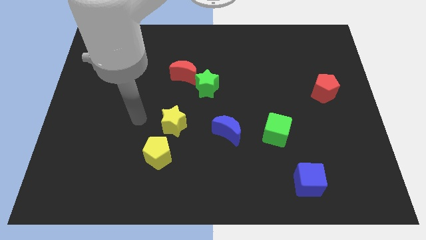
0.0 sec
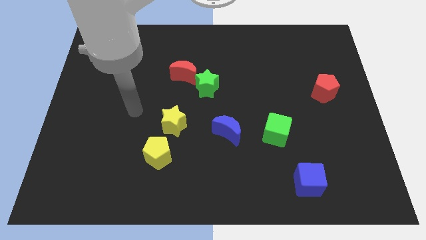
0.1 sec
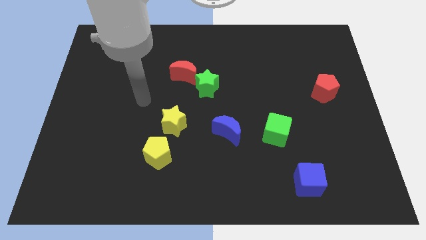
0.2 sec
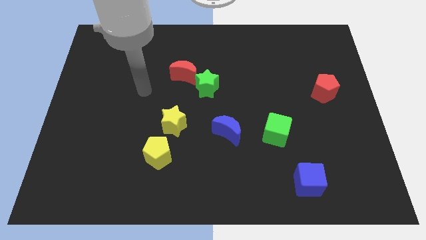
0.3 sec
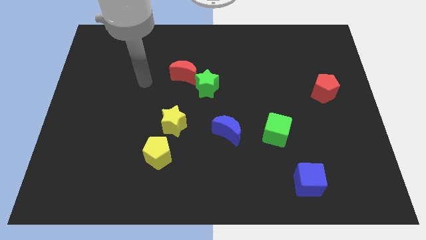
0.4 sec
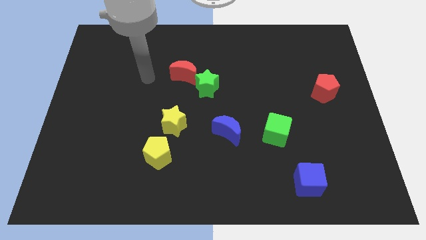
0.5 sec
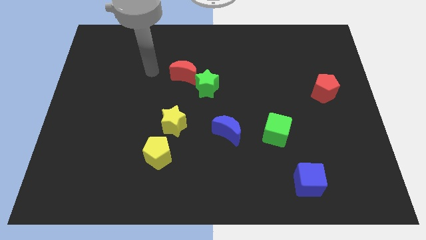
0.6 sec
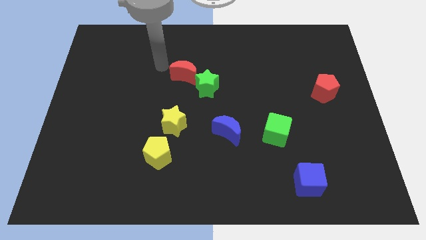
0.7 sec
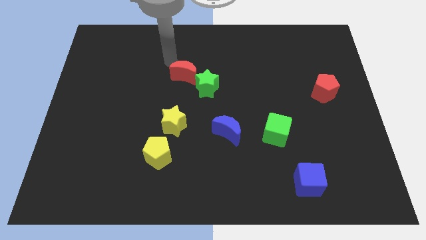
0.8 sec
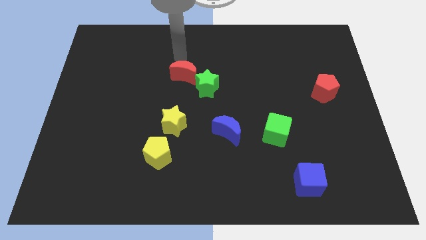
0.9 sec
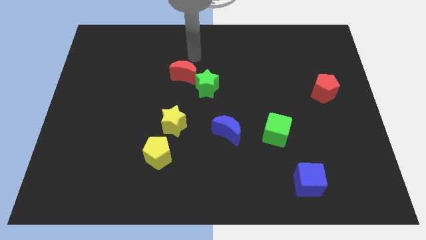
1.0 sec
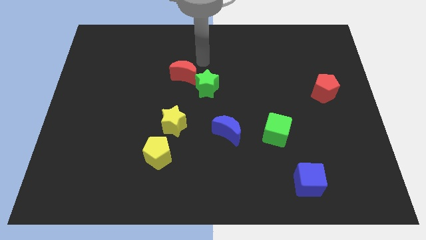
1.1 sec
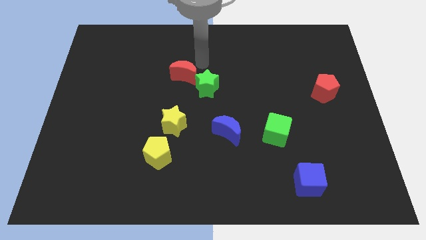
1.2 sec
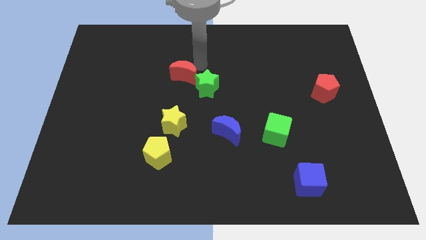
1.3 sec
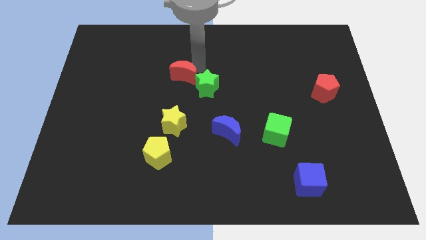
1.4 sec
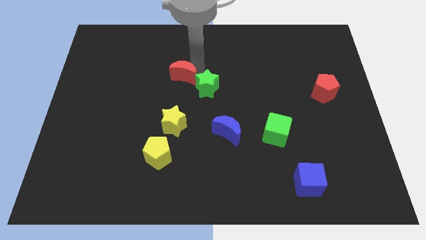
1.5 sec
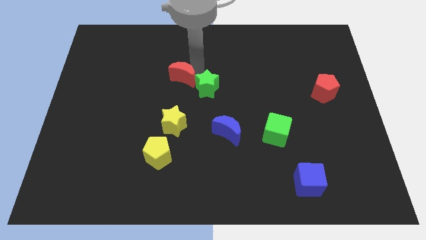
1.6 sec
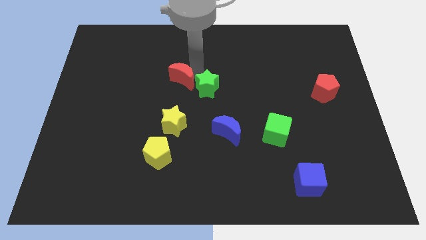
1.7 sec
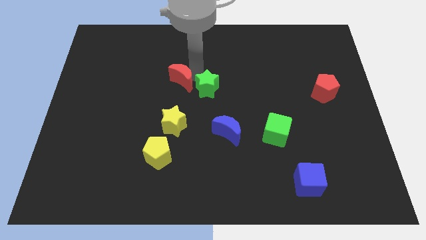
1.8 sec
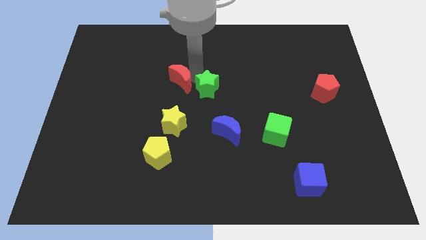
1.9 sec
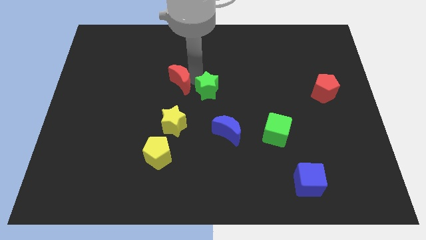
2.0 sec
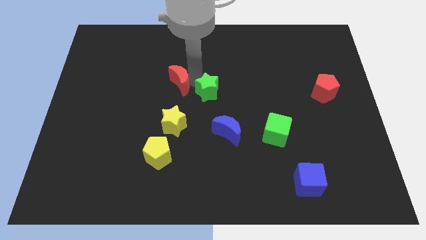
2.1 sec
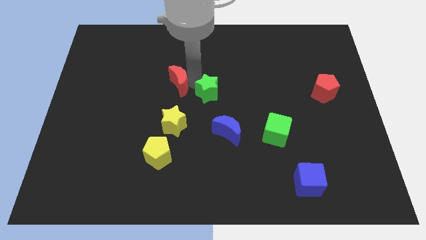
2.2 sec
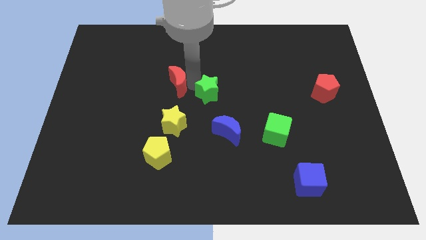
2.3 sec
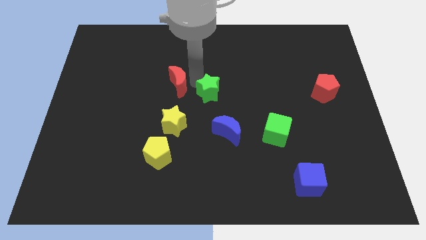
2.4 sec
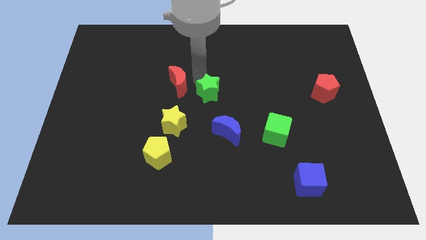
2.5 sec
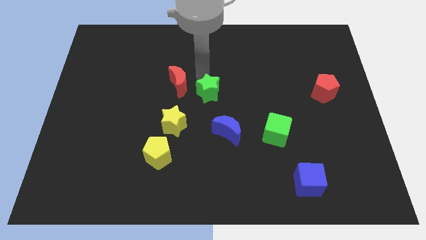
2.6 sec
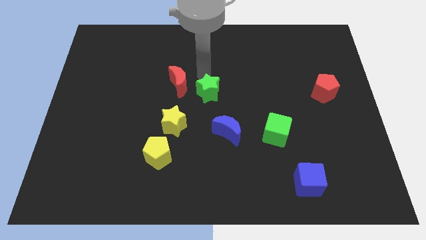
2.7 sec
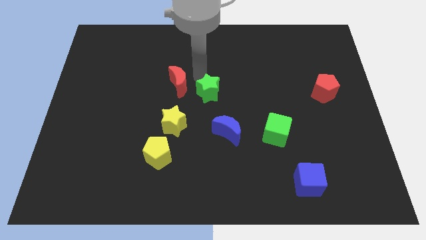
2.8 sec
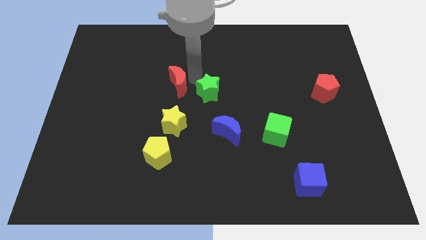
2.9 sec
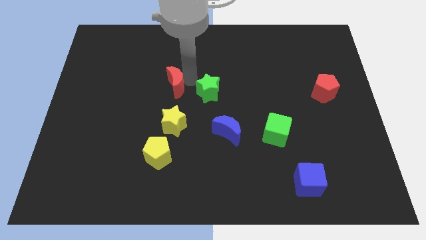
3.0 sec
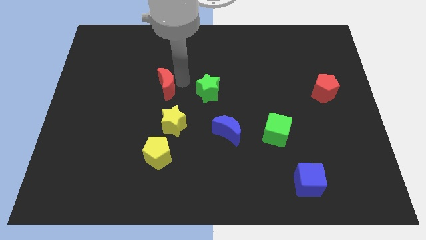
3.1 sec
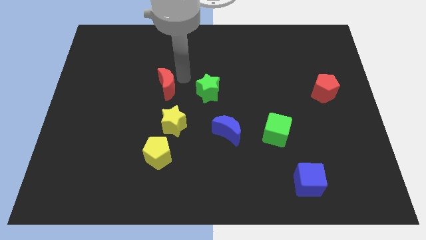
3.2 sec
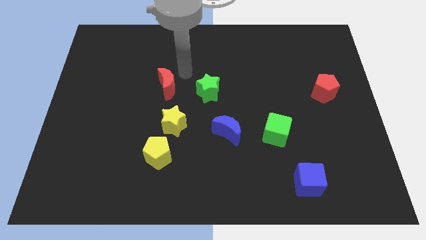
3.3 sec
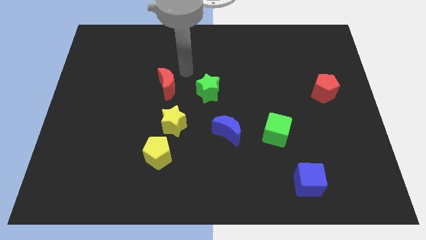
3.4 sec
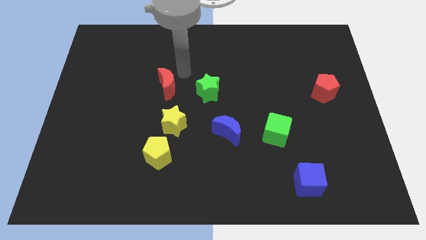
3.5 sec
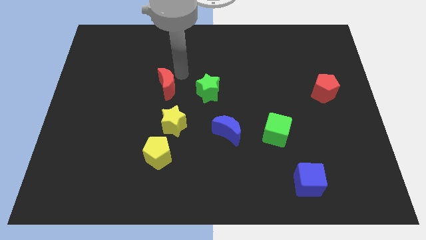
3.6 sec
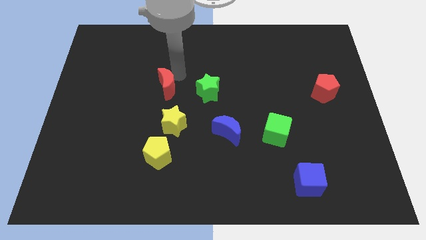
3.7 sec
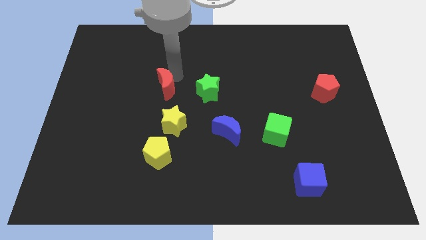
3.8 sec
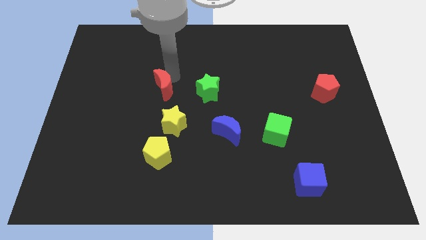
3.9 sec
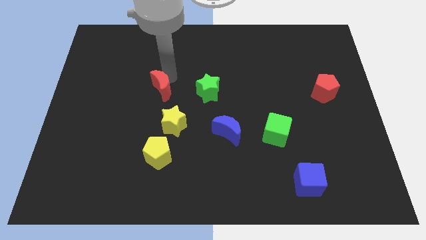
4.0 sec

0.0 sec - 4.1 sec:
slide the red moon a little down and to the left diagonally

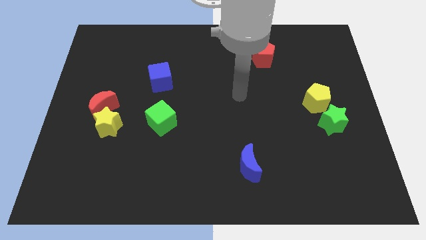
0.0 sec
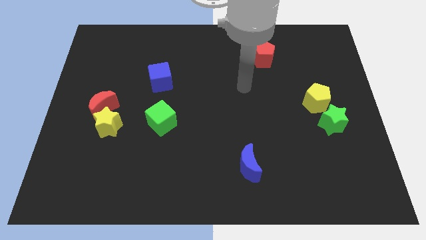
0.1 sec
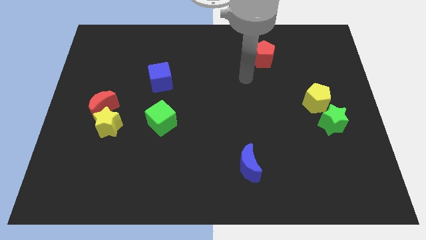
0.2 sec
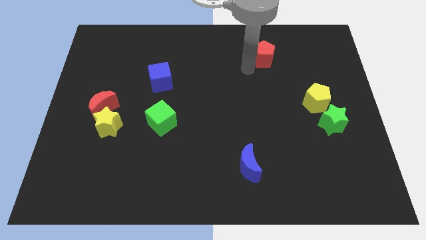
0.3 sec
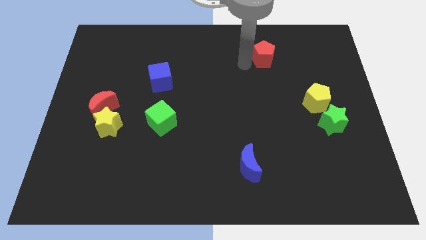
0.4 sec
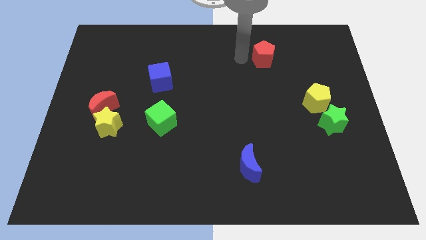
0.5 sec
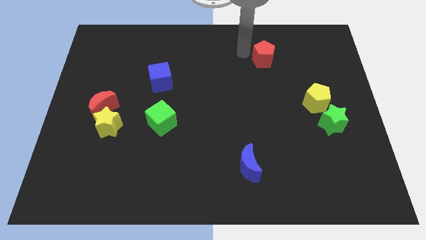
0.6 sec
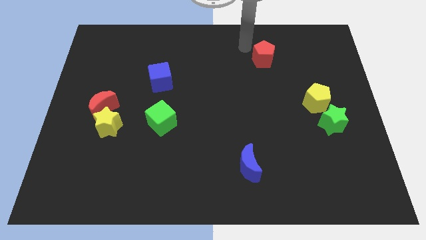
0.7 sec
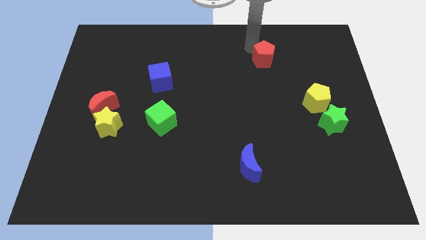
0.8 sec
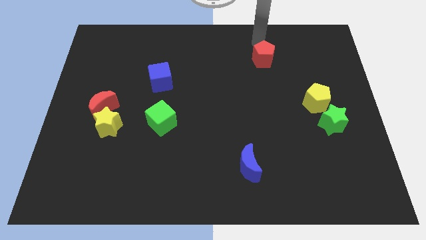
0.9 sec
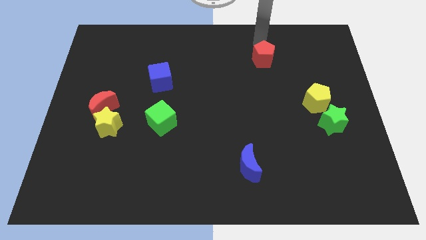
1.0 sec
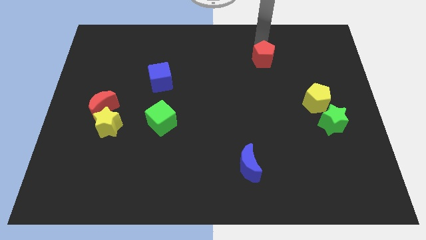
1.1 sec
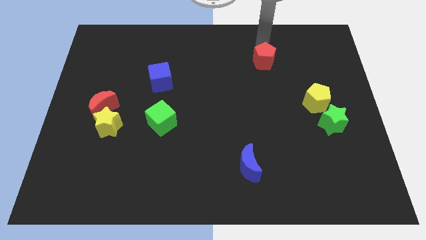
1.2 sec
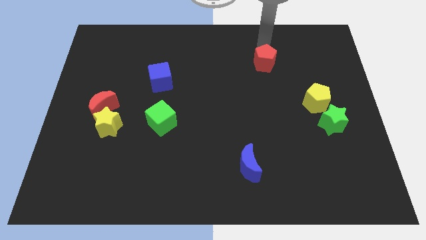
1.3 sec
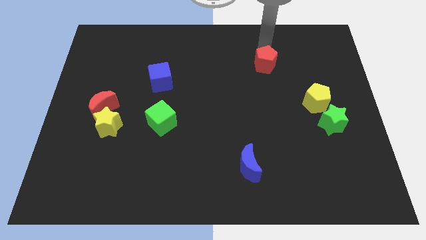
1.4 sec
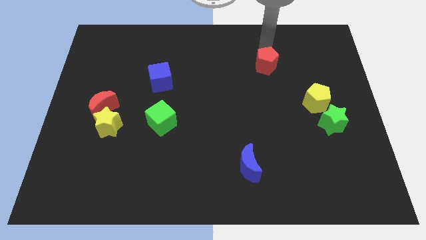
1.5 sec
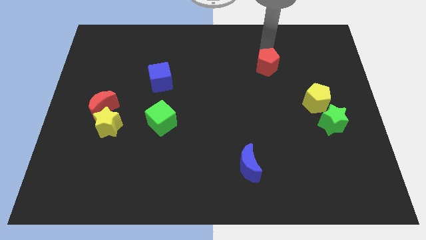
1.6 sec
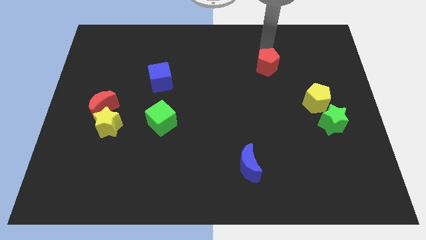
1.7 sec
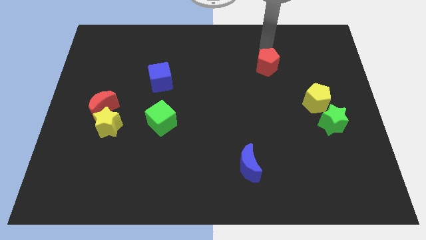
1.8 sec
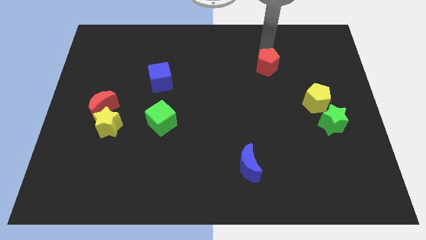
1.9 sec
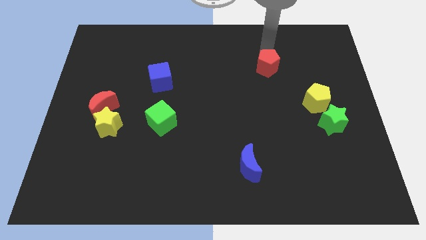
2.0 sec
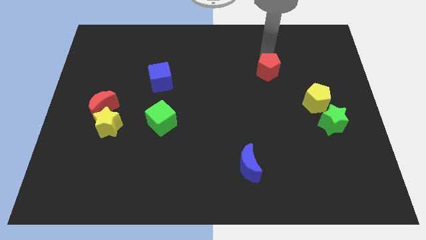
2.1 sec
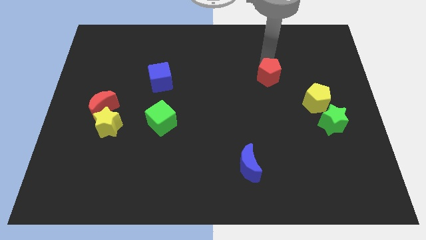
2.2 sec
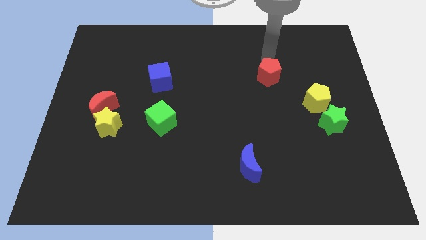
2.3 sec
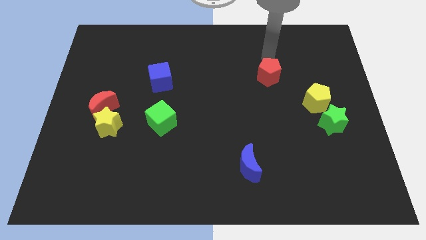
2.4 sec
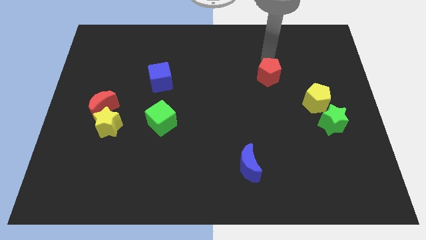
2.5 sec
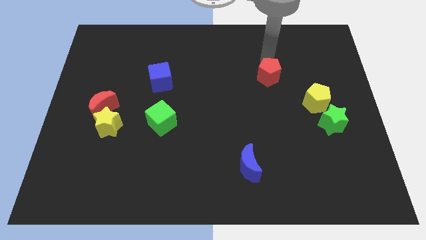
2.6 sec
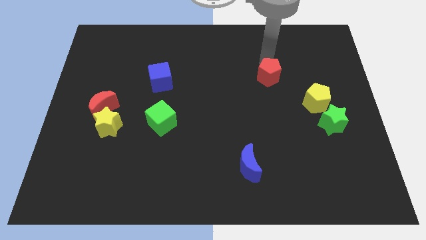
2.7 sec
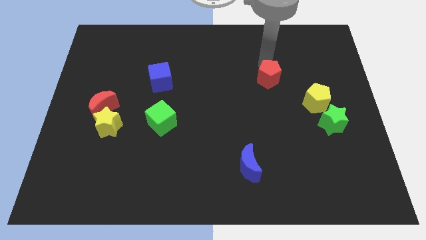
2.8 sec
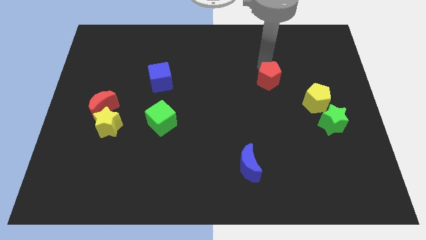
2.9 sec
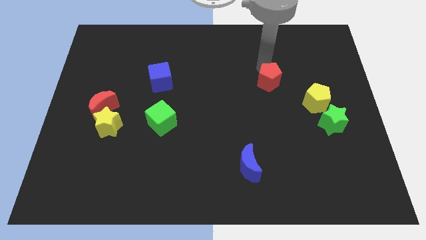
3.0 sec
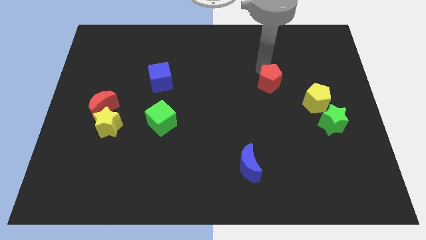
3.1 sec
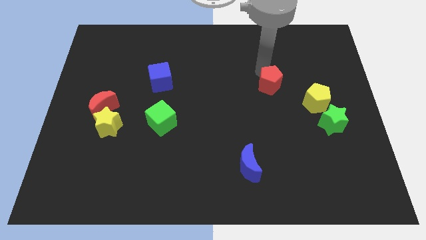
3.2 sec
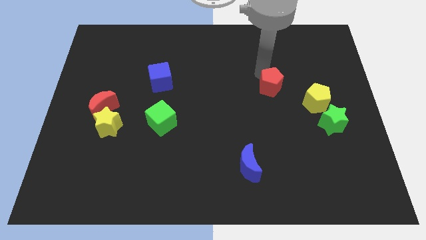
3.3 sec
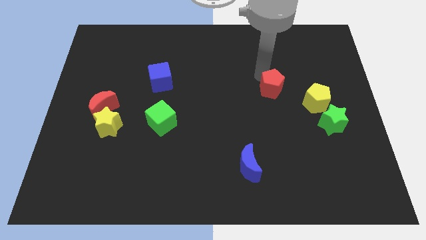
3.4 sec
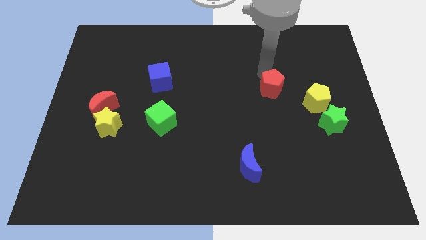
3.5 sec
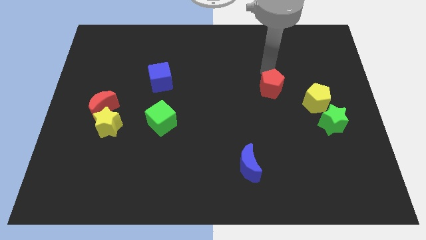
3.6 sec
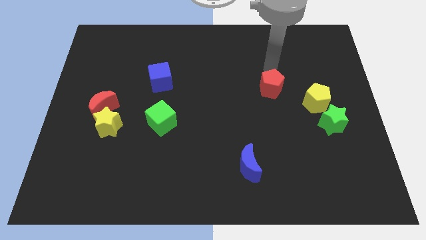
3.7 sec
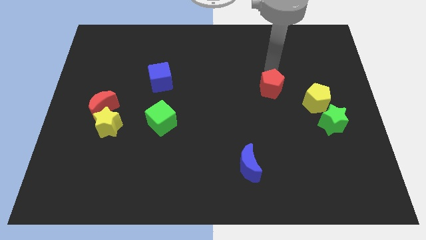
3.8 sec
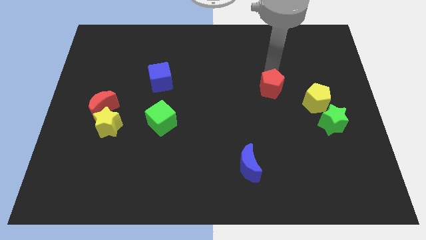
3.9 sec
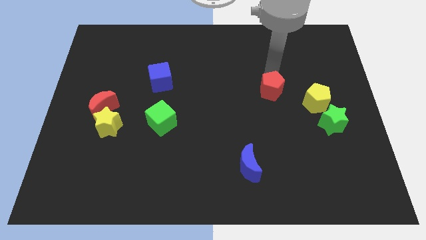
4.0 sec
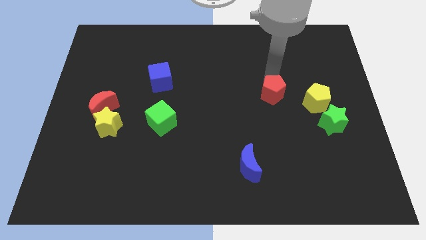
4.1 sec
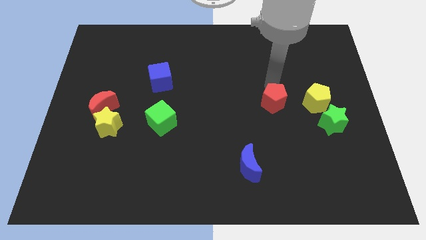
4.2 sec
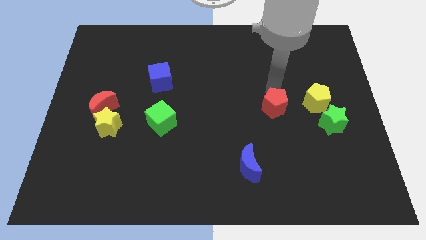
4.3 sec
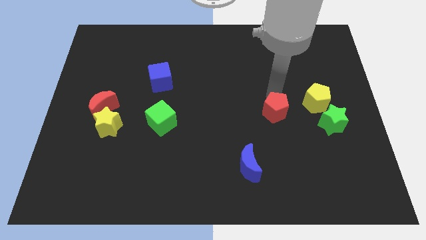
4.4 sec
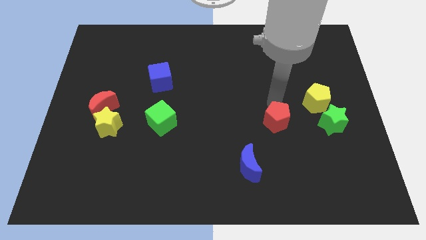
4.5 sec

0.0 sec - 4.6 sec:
move the red pentagon downwards
